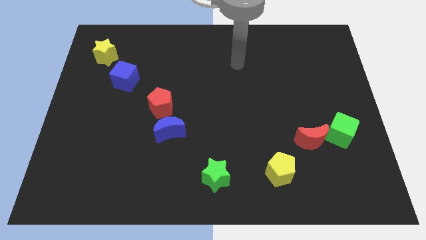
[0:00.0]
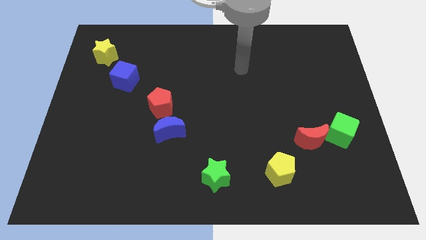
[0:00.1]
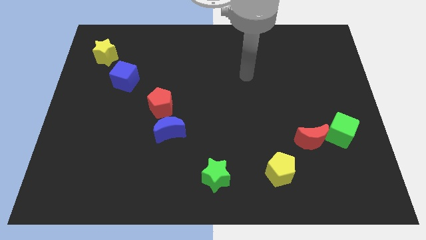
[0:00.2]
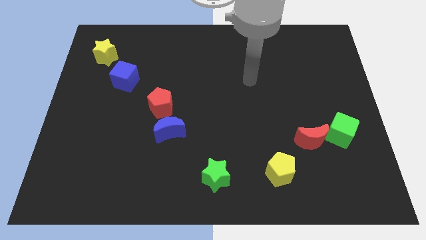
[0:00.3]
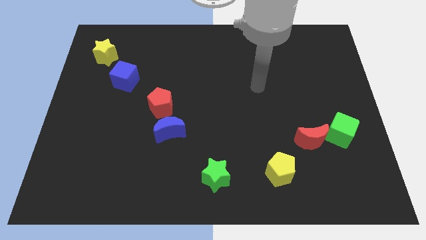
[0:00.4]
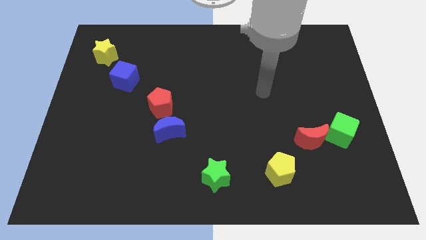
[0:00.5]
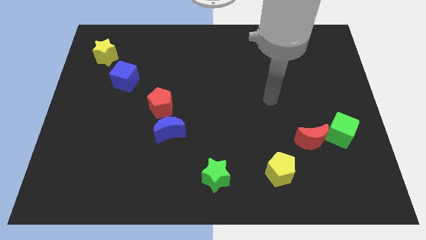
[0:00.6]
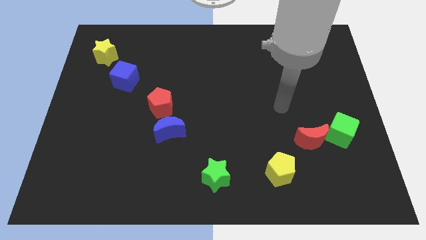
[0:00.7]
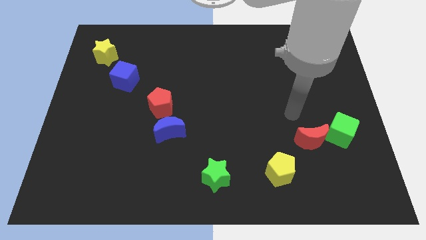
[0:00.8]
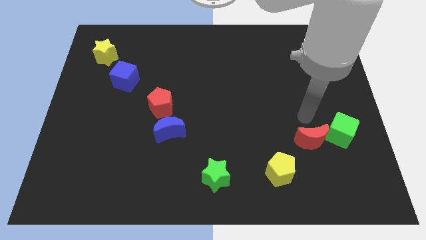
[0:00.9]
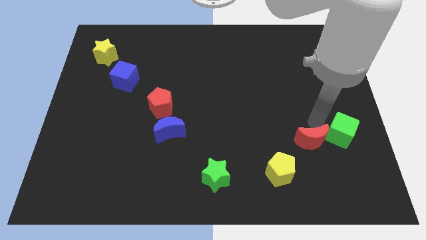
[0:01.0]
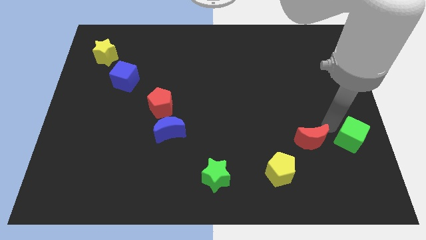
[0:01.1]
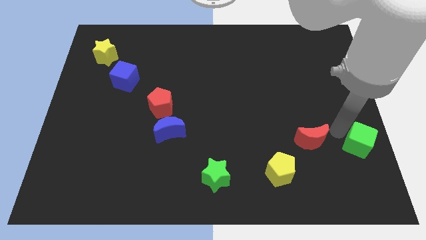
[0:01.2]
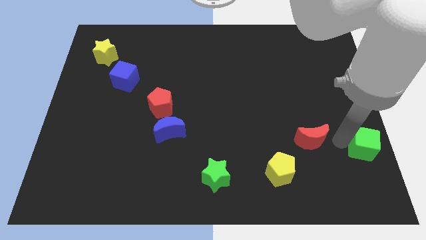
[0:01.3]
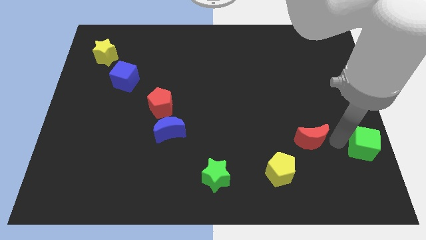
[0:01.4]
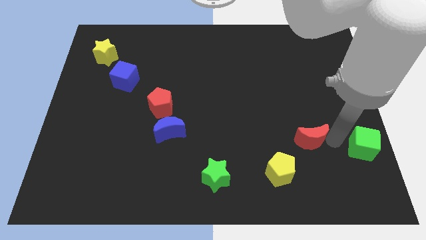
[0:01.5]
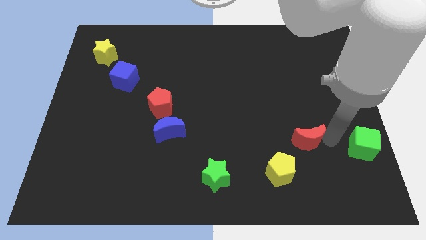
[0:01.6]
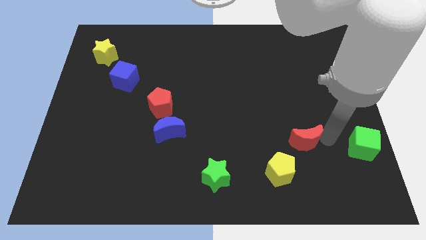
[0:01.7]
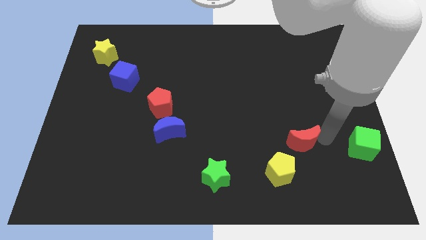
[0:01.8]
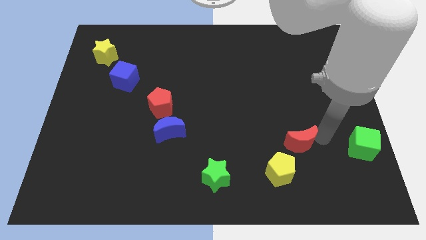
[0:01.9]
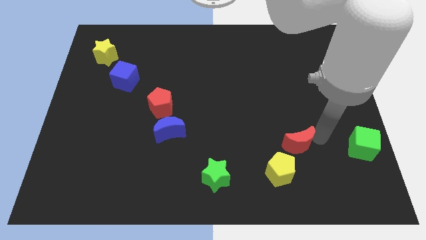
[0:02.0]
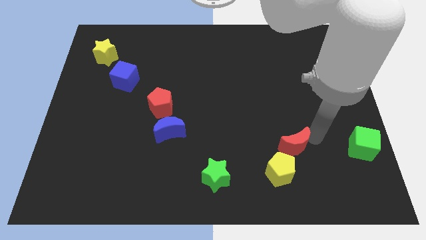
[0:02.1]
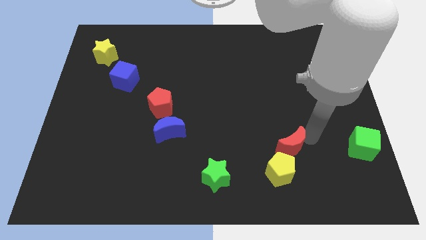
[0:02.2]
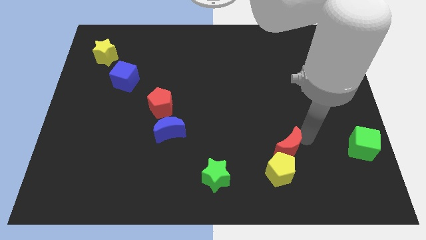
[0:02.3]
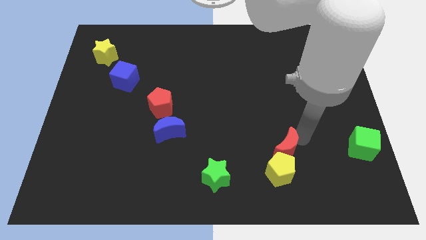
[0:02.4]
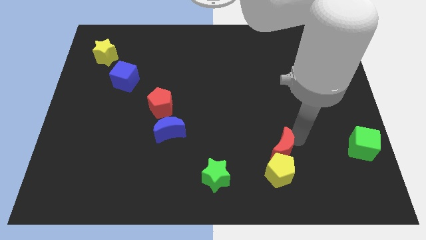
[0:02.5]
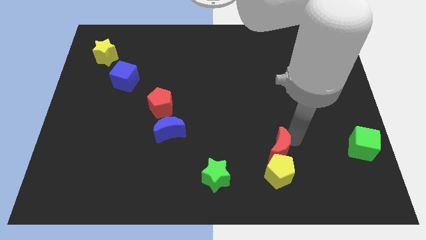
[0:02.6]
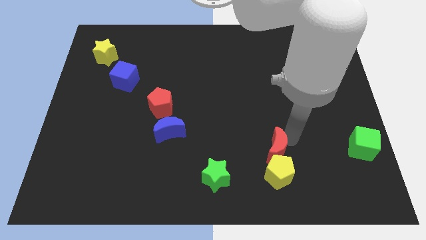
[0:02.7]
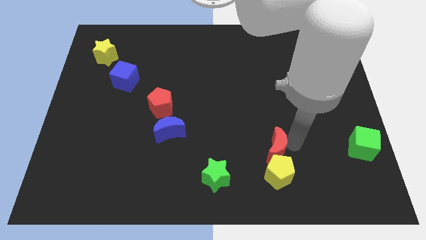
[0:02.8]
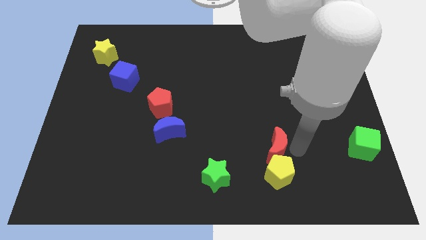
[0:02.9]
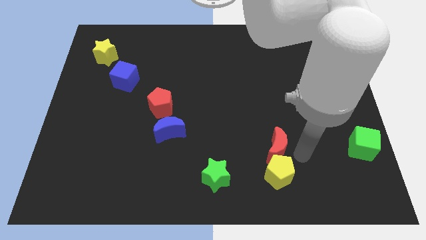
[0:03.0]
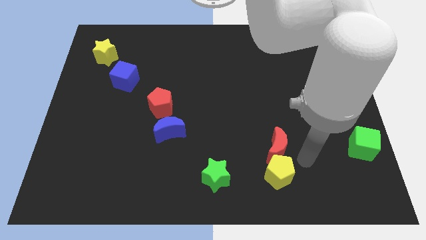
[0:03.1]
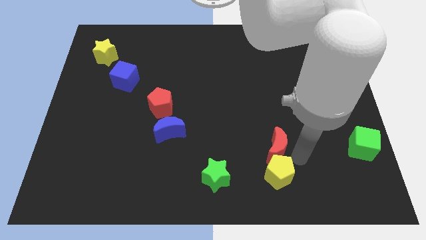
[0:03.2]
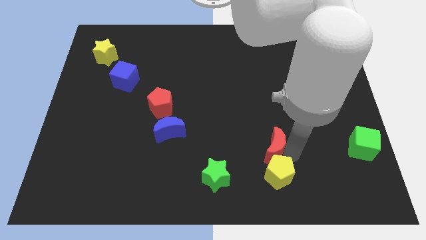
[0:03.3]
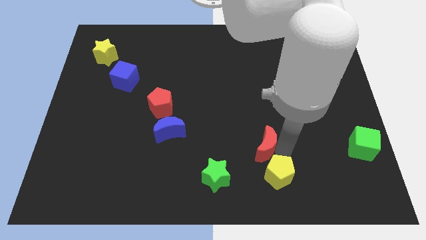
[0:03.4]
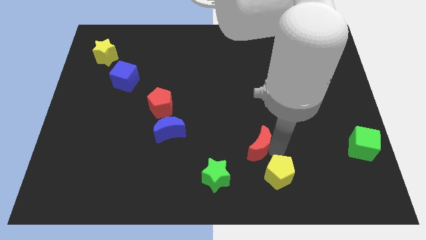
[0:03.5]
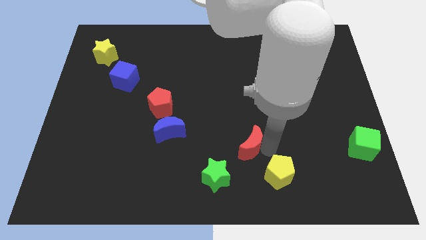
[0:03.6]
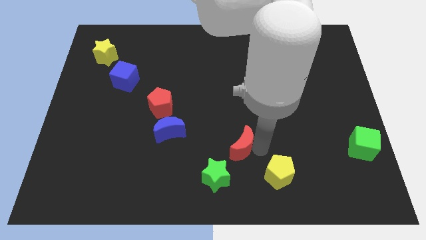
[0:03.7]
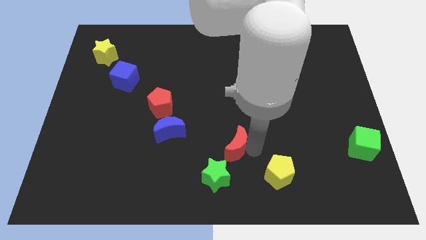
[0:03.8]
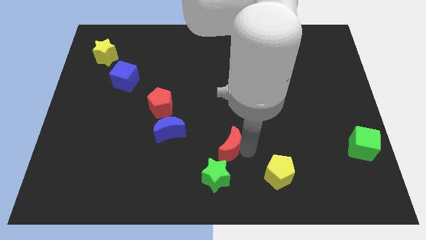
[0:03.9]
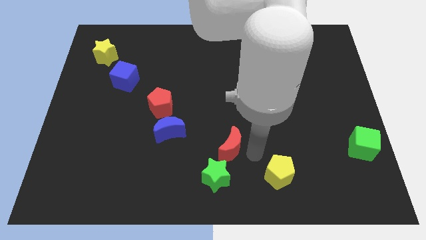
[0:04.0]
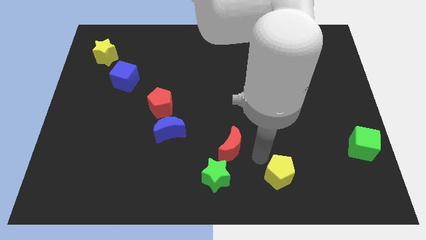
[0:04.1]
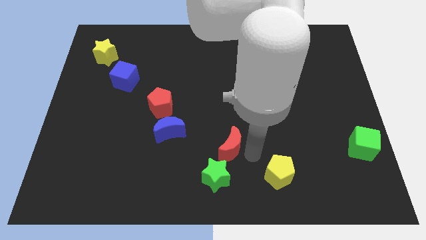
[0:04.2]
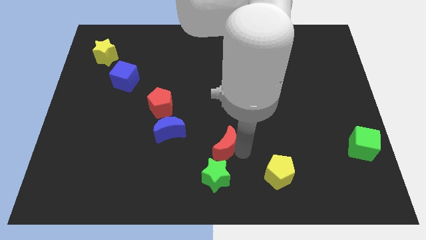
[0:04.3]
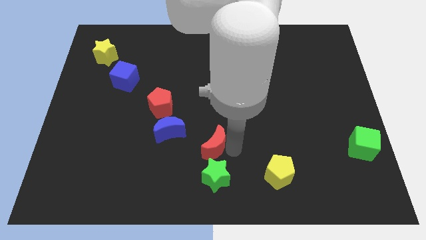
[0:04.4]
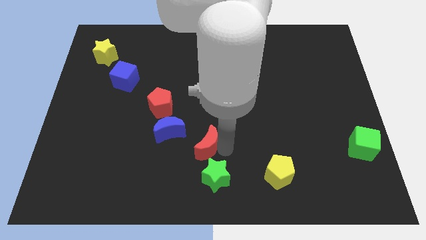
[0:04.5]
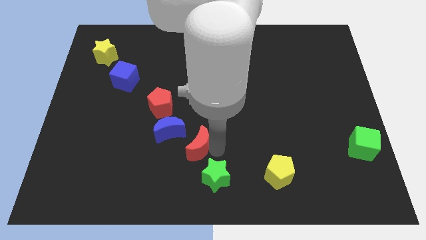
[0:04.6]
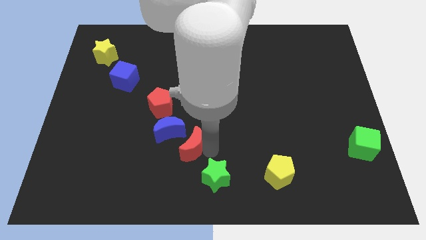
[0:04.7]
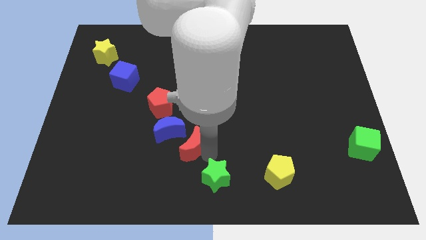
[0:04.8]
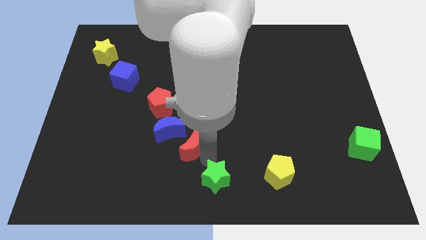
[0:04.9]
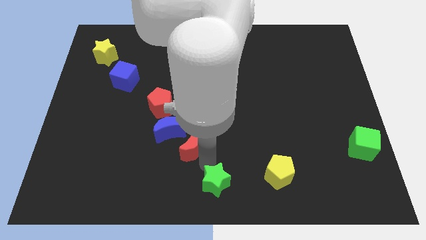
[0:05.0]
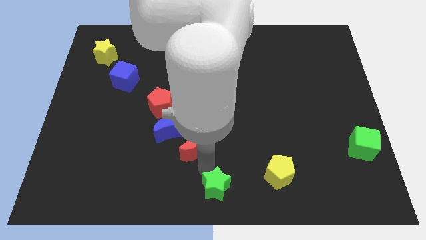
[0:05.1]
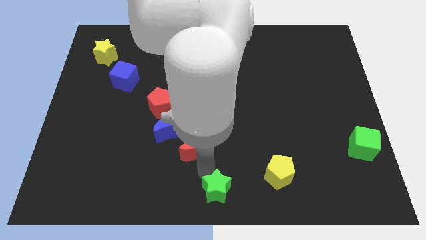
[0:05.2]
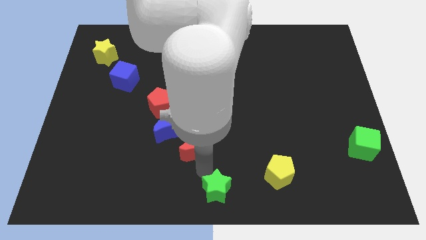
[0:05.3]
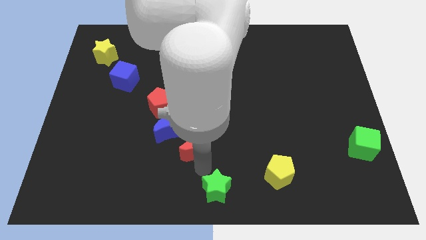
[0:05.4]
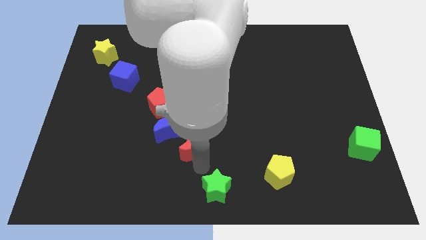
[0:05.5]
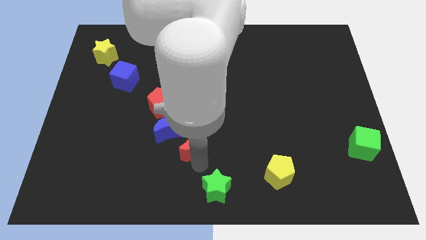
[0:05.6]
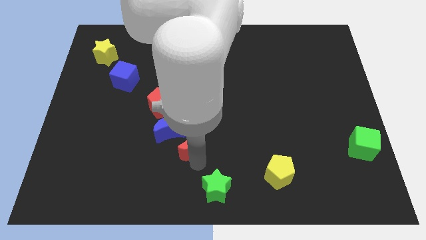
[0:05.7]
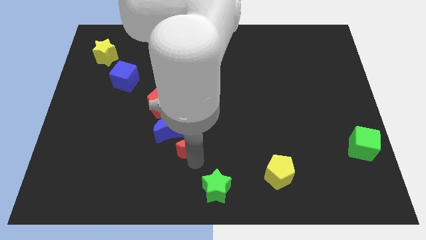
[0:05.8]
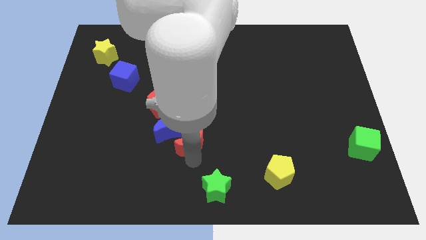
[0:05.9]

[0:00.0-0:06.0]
push the red moon towards the blue moon

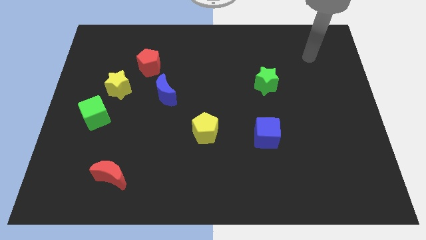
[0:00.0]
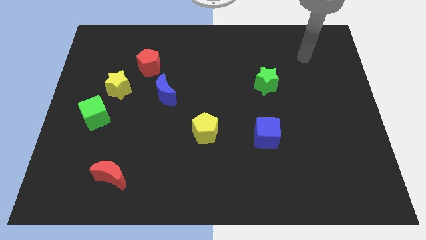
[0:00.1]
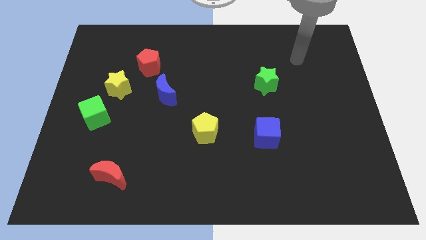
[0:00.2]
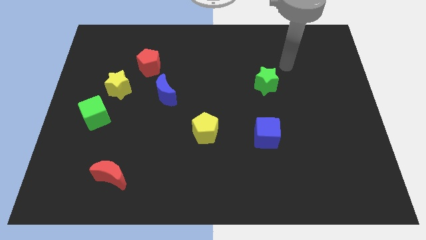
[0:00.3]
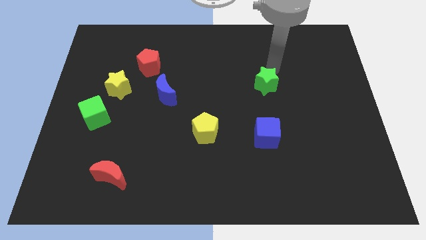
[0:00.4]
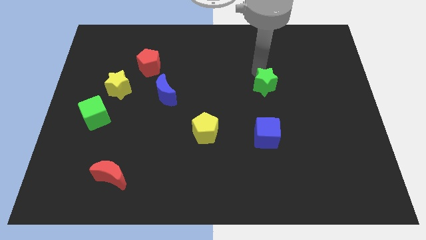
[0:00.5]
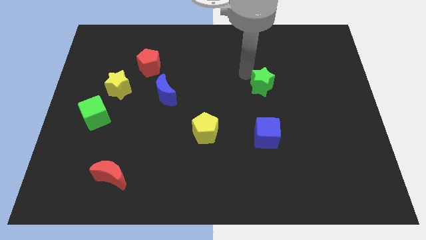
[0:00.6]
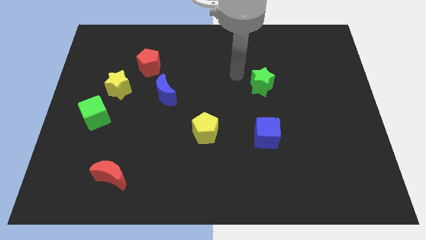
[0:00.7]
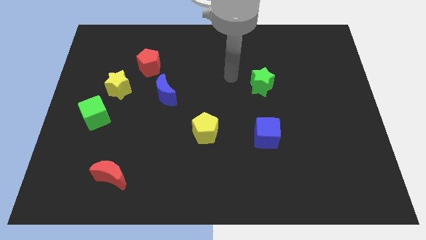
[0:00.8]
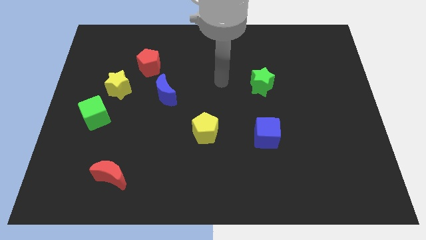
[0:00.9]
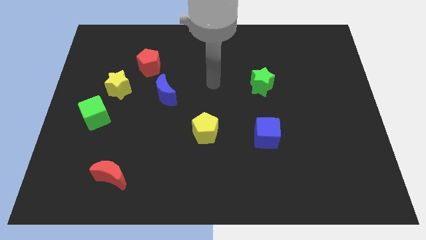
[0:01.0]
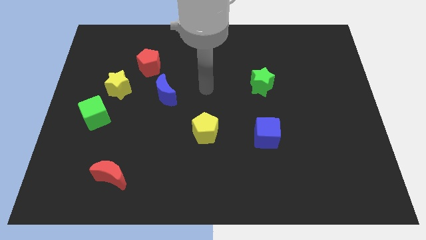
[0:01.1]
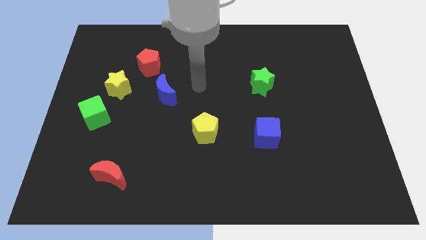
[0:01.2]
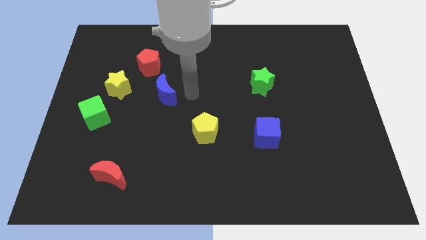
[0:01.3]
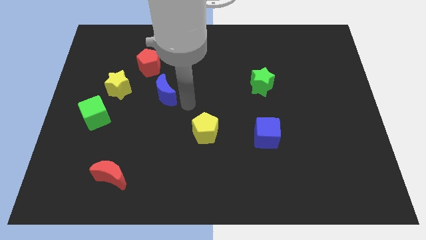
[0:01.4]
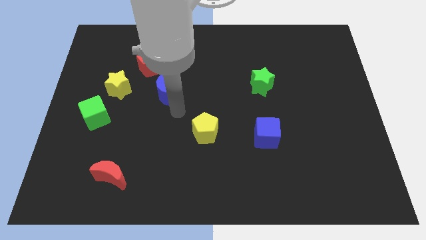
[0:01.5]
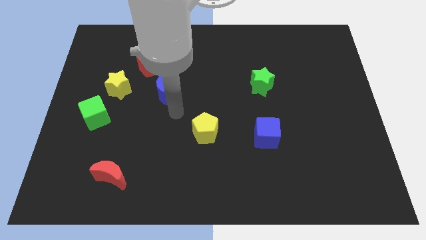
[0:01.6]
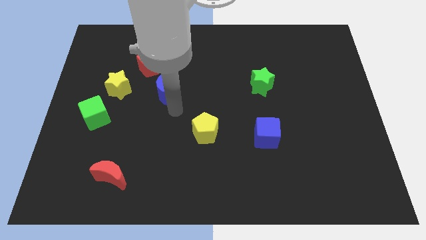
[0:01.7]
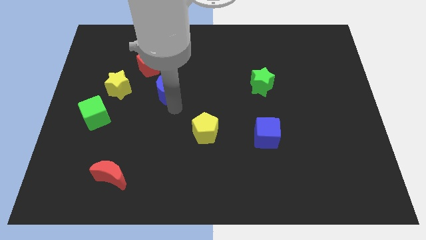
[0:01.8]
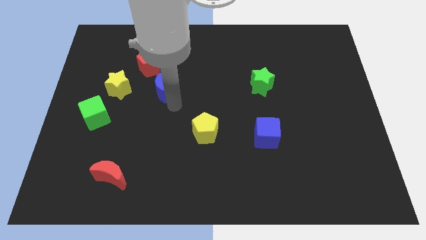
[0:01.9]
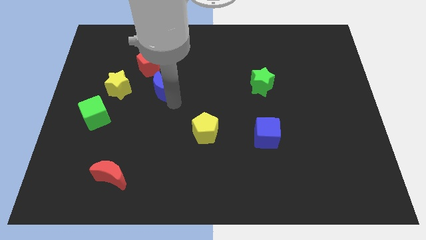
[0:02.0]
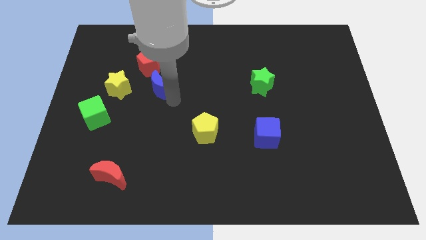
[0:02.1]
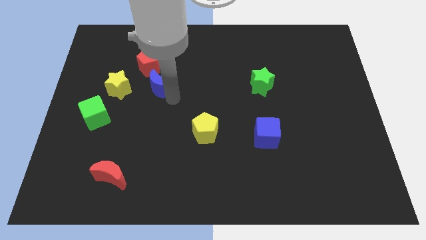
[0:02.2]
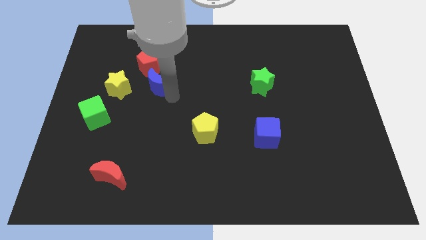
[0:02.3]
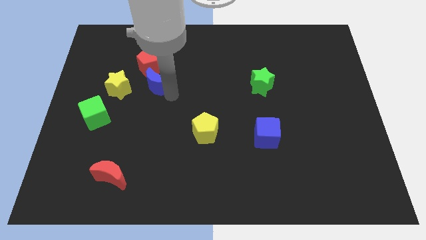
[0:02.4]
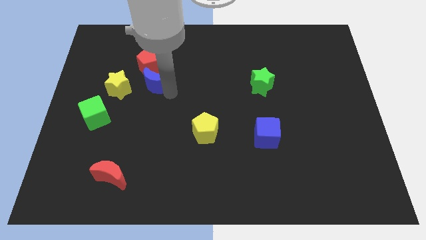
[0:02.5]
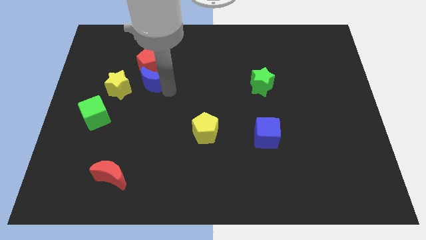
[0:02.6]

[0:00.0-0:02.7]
slide the blue moon next to the red pentagon
